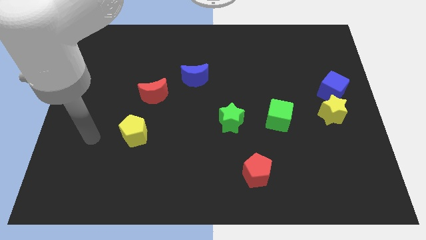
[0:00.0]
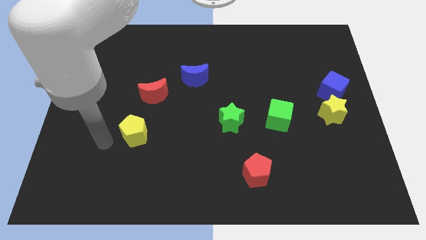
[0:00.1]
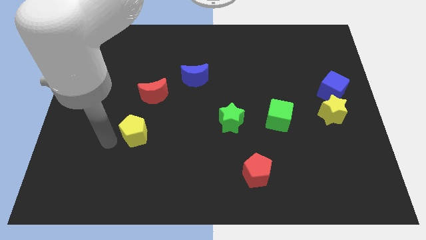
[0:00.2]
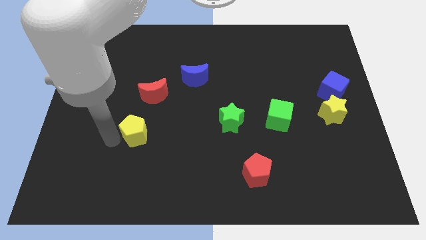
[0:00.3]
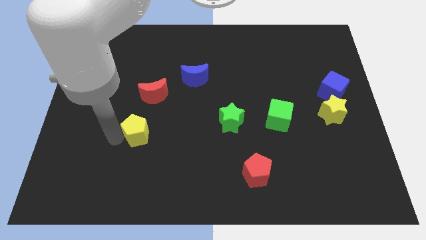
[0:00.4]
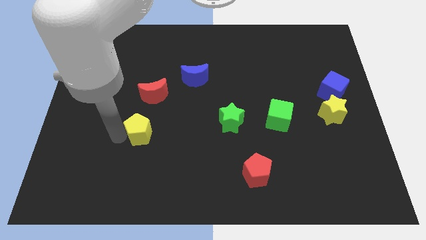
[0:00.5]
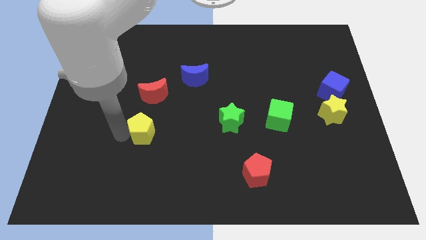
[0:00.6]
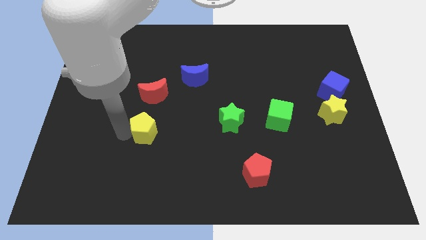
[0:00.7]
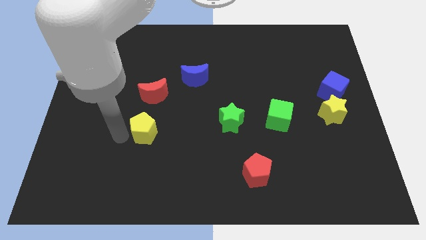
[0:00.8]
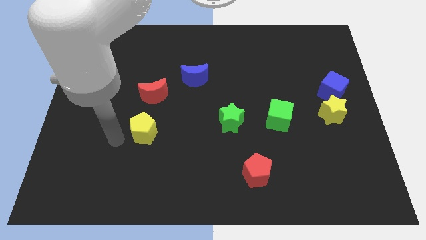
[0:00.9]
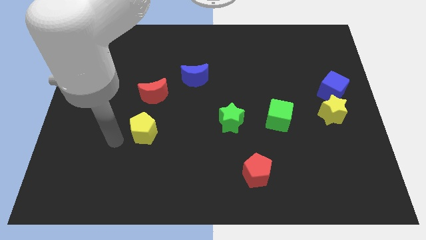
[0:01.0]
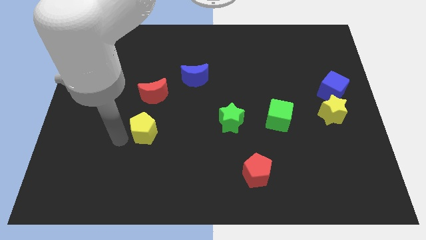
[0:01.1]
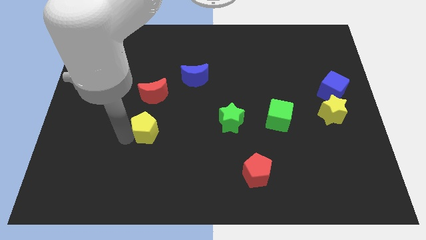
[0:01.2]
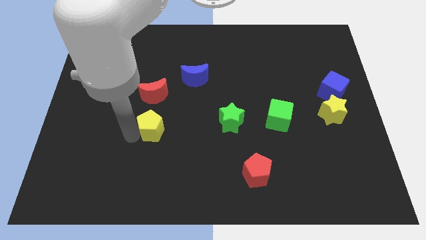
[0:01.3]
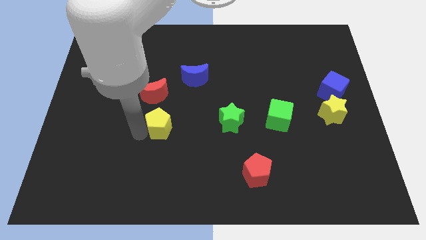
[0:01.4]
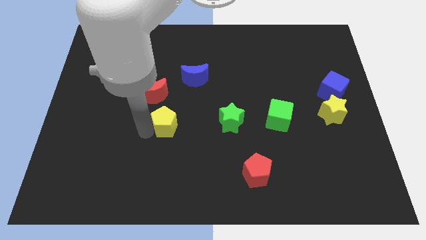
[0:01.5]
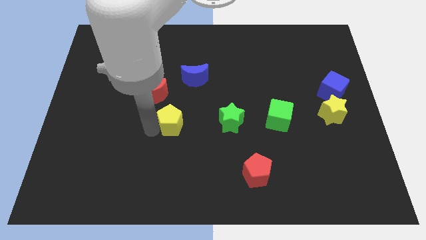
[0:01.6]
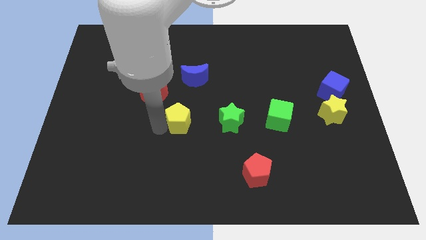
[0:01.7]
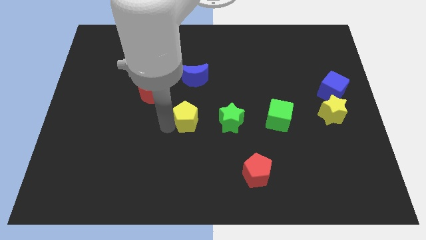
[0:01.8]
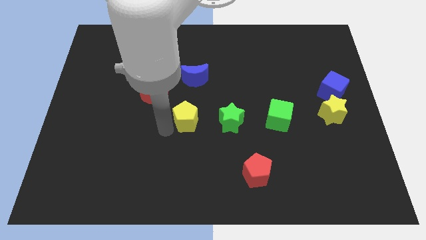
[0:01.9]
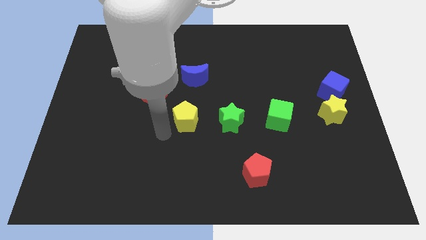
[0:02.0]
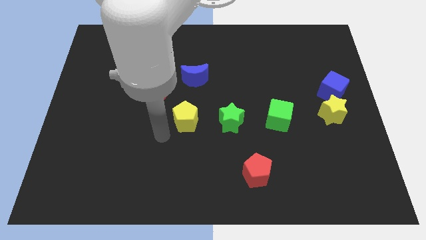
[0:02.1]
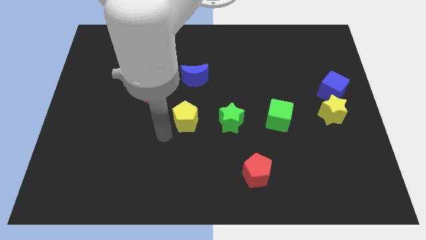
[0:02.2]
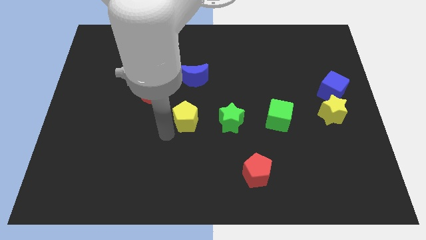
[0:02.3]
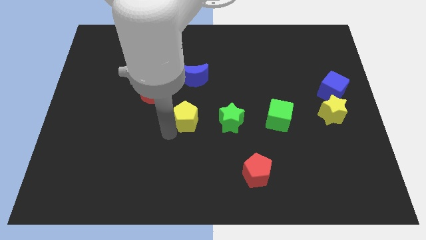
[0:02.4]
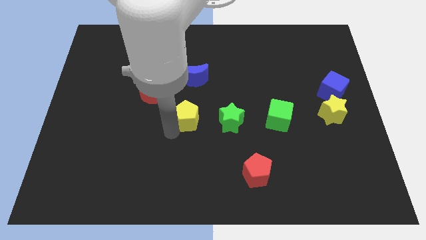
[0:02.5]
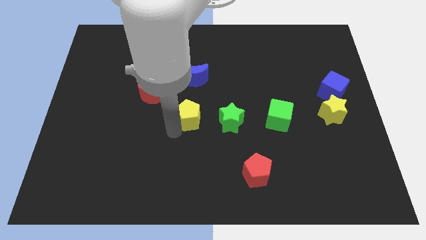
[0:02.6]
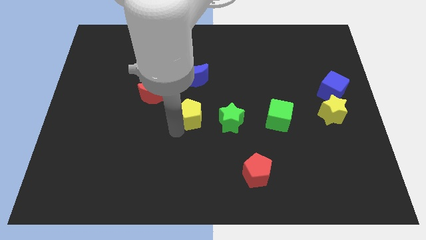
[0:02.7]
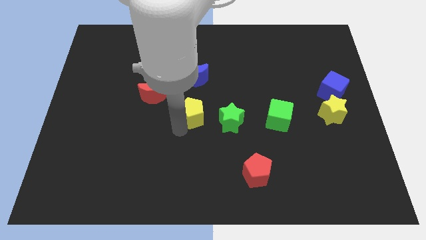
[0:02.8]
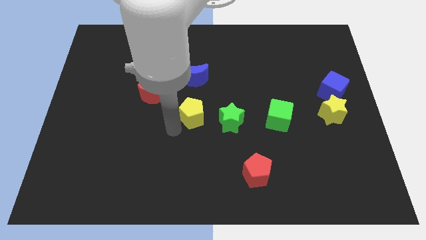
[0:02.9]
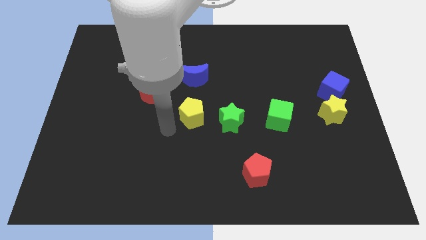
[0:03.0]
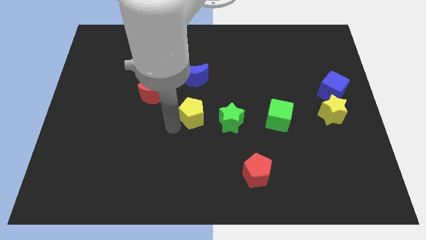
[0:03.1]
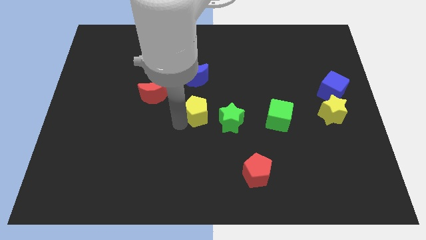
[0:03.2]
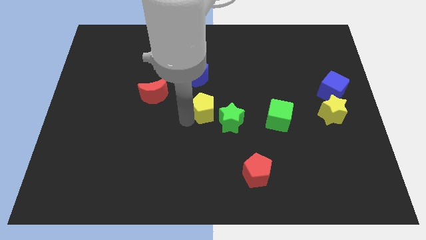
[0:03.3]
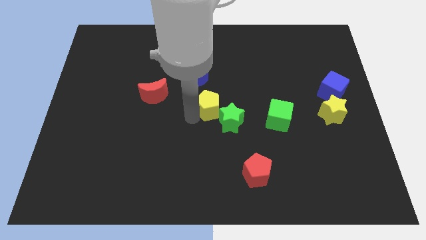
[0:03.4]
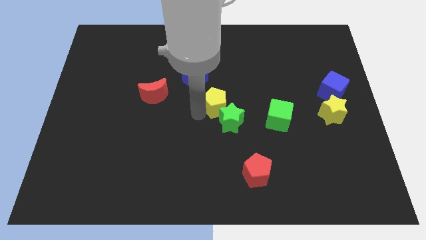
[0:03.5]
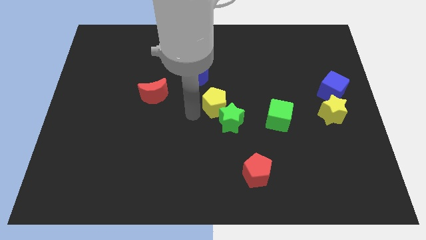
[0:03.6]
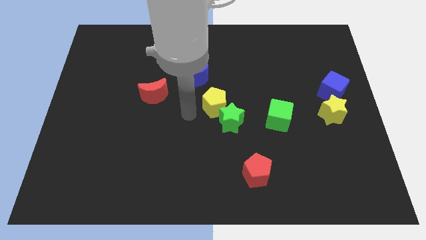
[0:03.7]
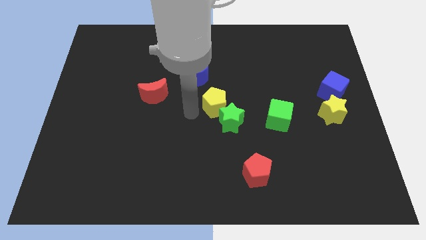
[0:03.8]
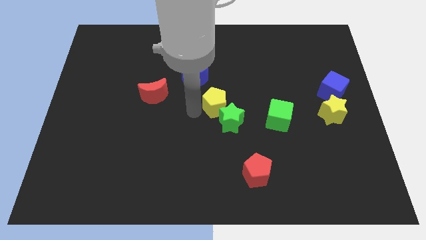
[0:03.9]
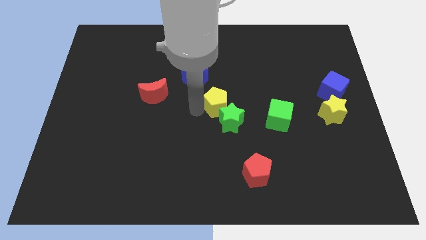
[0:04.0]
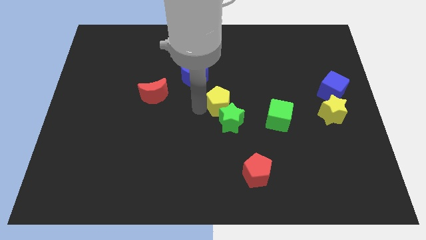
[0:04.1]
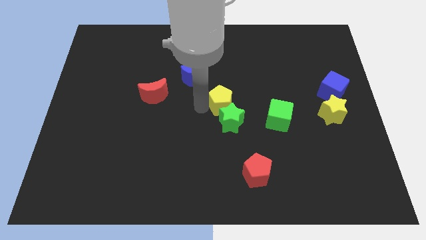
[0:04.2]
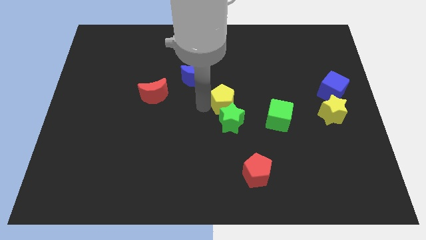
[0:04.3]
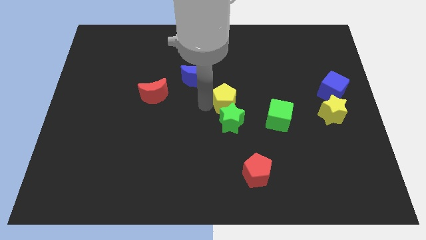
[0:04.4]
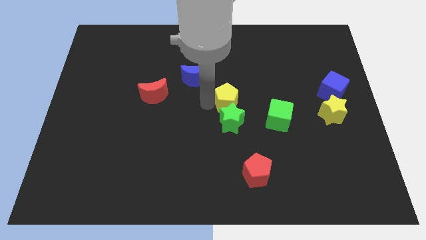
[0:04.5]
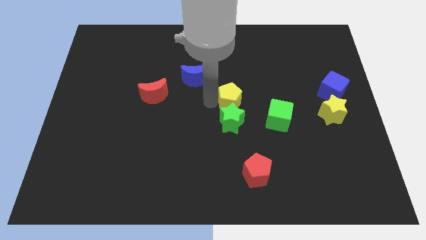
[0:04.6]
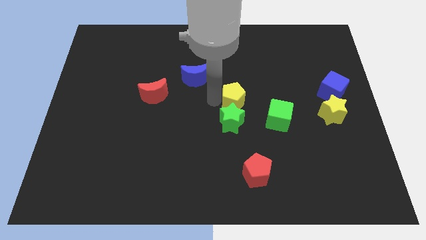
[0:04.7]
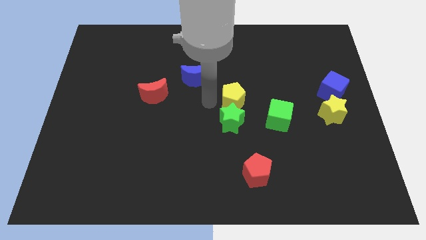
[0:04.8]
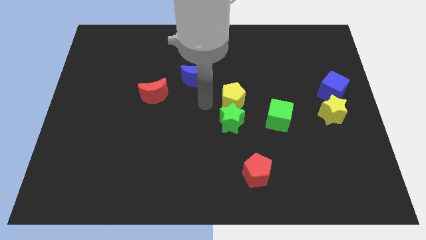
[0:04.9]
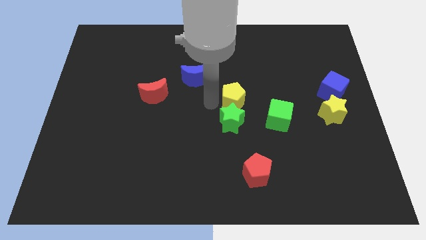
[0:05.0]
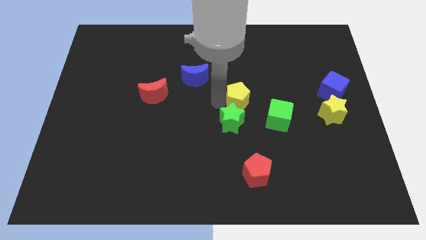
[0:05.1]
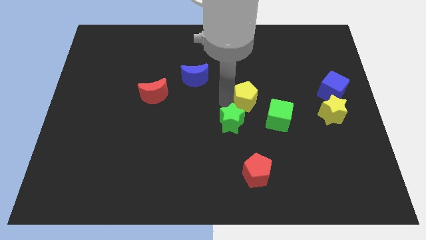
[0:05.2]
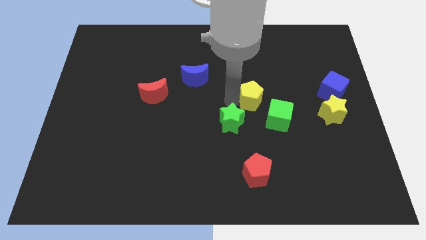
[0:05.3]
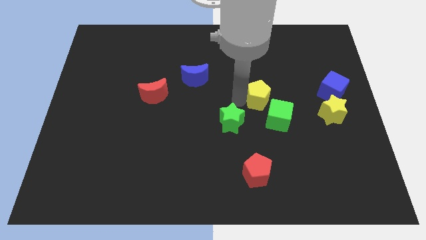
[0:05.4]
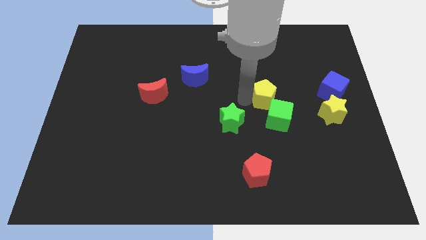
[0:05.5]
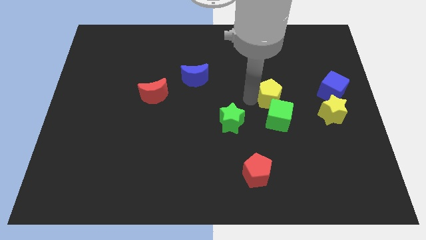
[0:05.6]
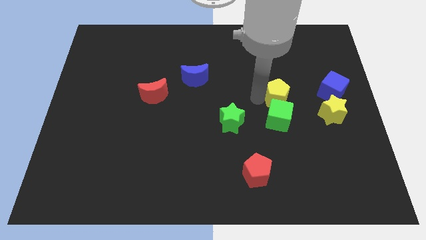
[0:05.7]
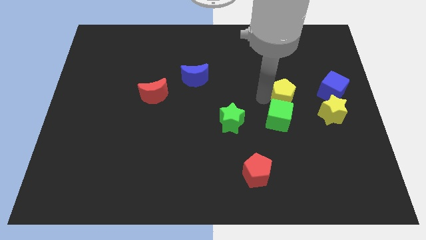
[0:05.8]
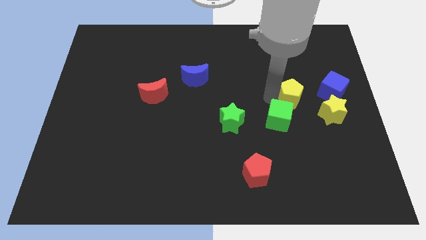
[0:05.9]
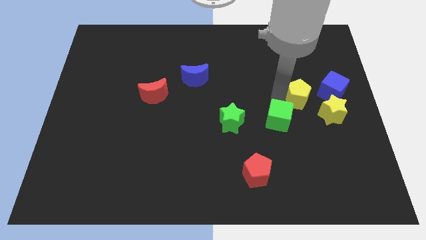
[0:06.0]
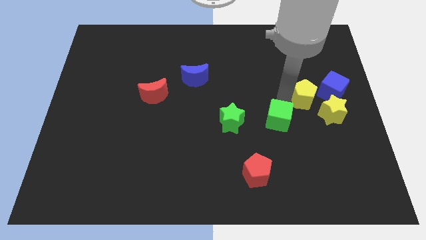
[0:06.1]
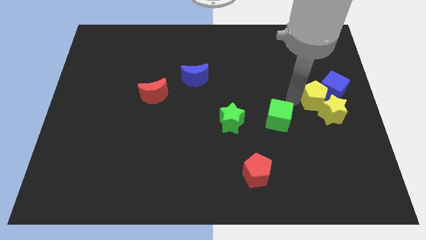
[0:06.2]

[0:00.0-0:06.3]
move the yellow pentagon next to the blue cube

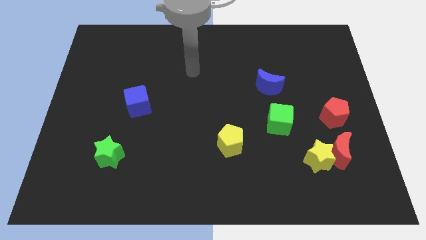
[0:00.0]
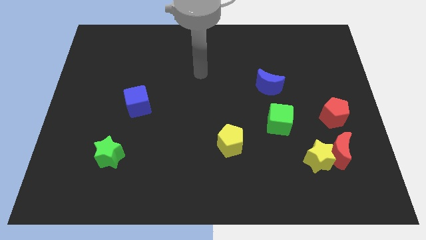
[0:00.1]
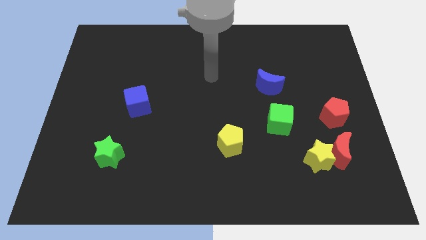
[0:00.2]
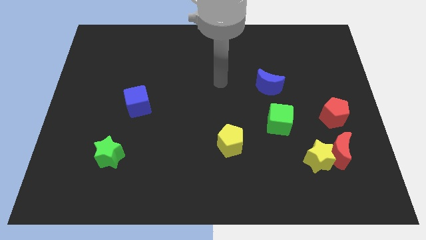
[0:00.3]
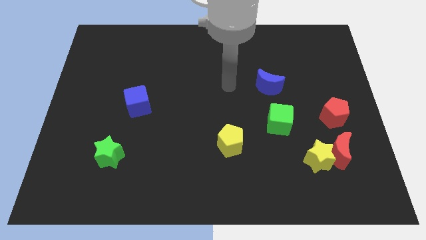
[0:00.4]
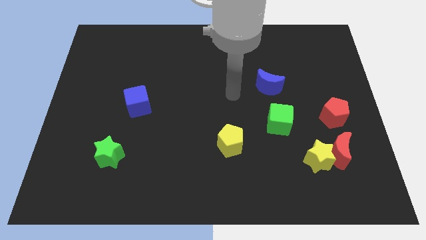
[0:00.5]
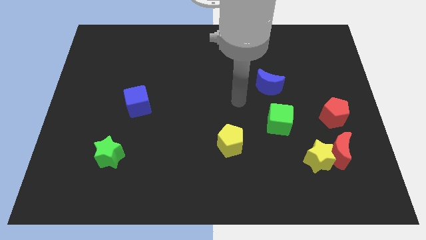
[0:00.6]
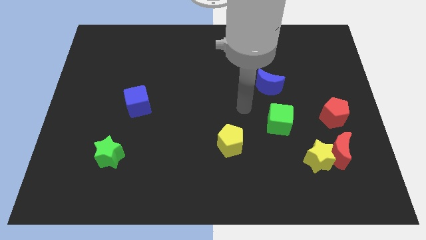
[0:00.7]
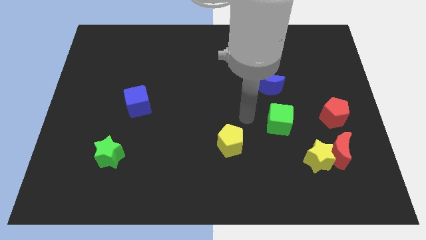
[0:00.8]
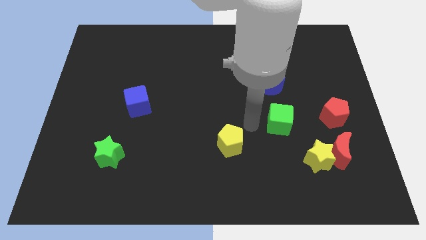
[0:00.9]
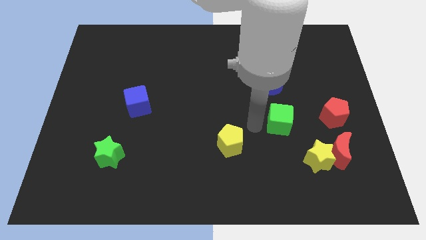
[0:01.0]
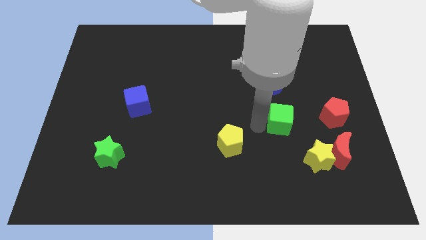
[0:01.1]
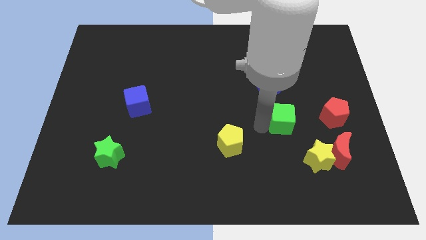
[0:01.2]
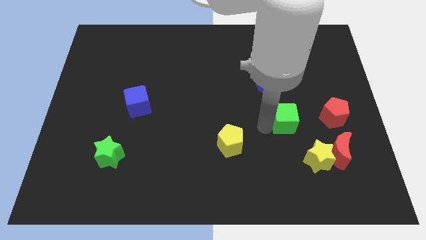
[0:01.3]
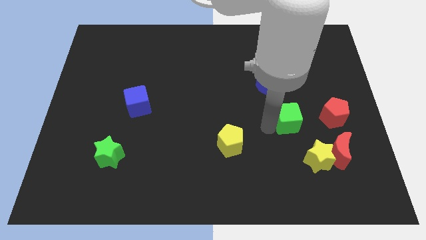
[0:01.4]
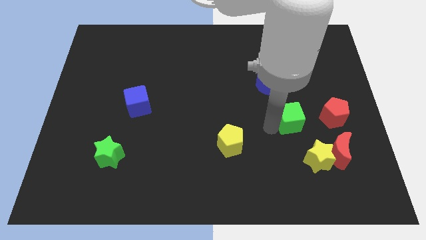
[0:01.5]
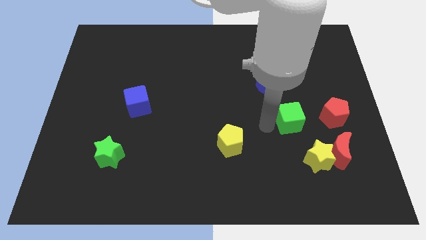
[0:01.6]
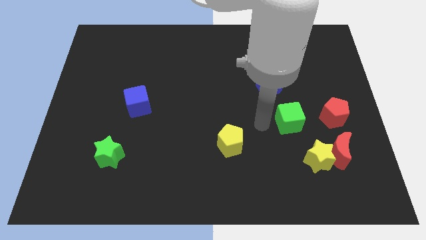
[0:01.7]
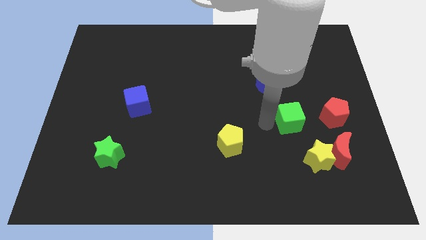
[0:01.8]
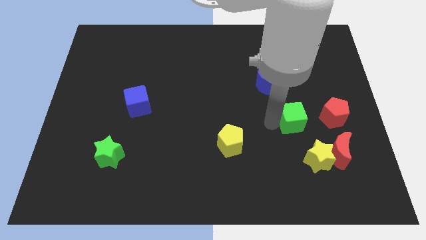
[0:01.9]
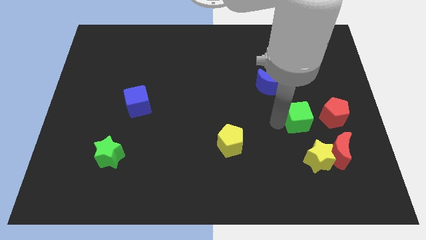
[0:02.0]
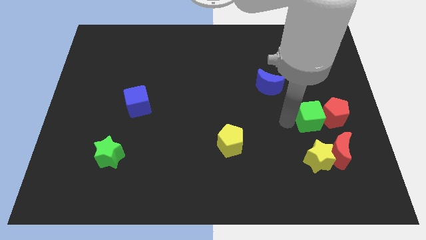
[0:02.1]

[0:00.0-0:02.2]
push the green cube next to the red pentagon
